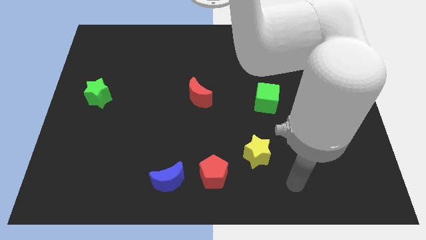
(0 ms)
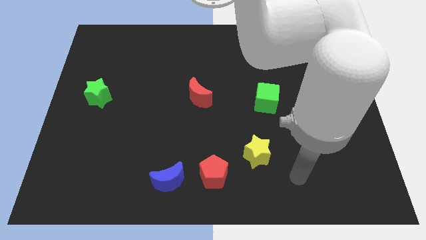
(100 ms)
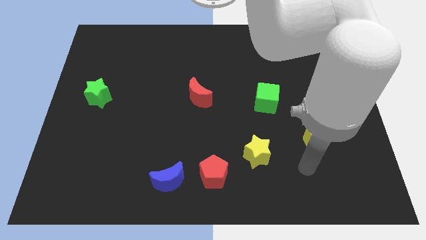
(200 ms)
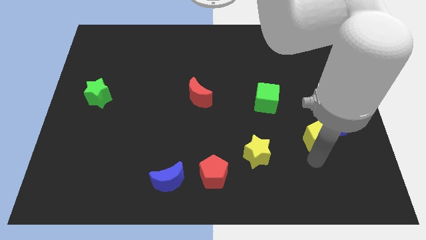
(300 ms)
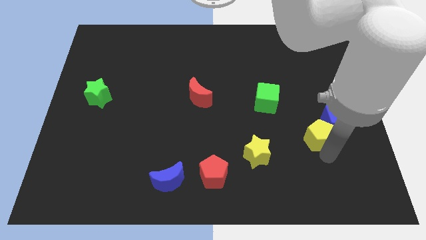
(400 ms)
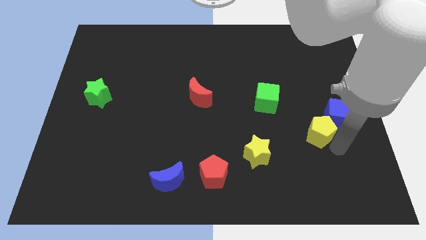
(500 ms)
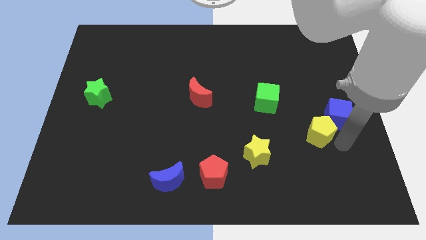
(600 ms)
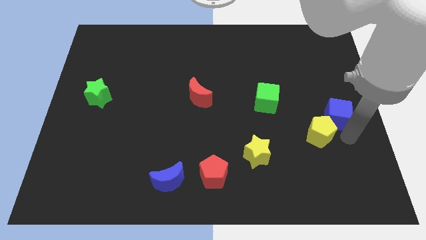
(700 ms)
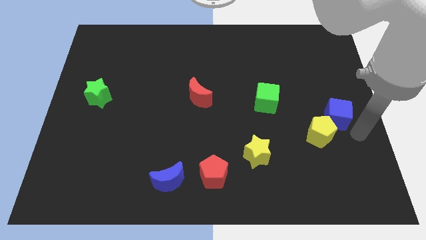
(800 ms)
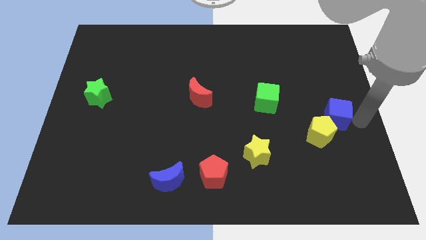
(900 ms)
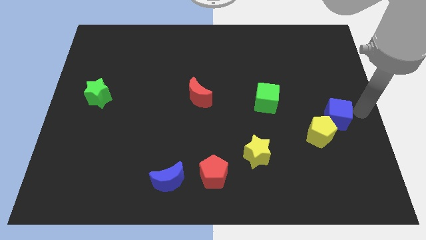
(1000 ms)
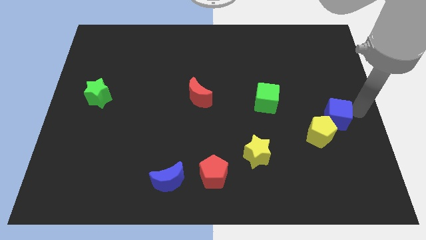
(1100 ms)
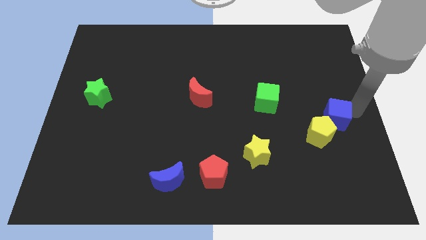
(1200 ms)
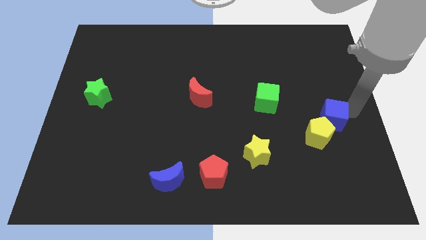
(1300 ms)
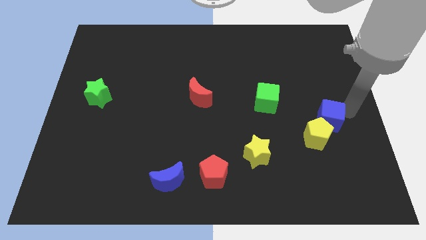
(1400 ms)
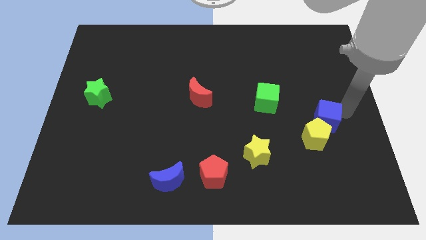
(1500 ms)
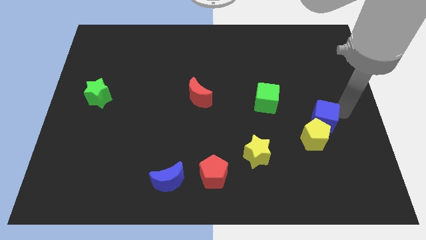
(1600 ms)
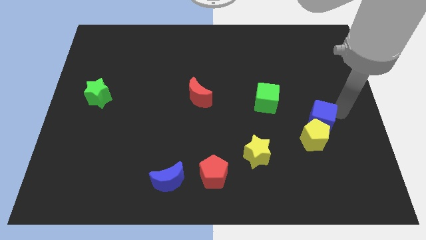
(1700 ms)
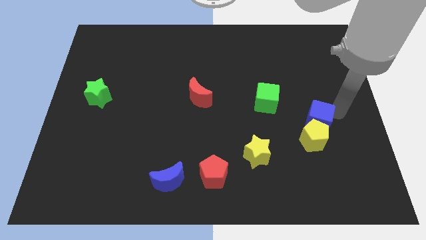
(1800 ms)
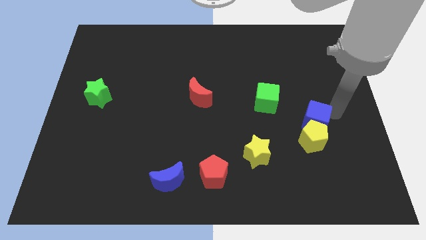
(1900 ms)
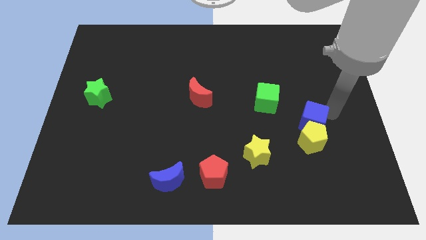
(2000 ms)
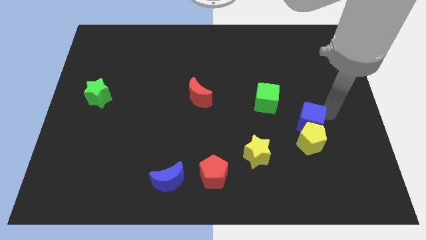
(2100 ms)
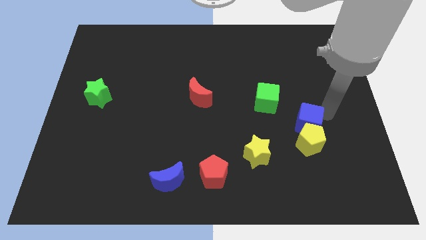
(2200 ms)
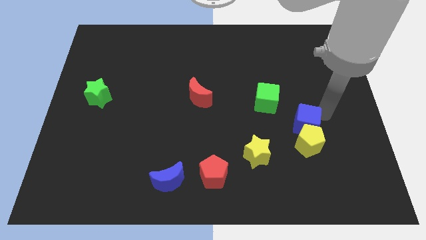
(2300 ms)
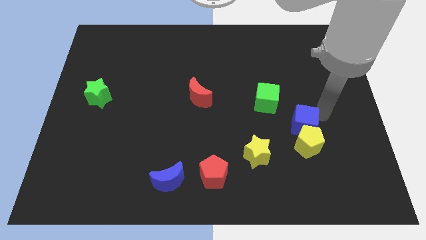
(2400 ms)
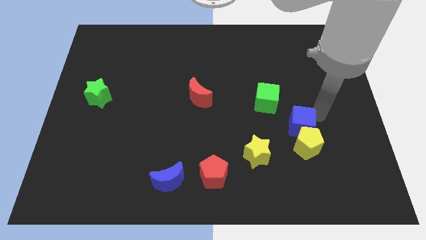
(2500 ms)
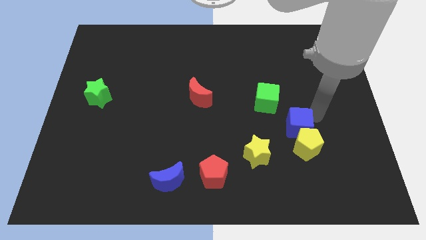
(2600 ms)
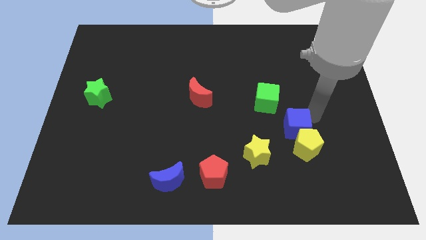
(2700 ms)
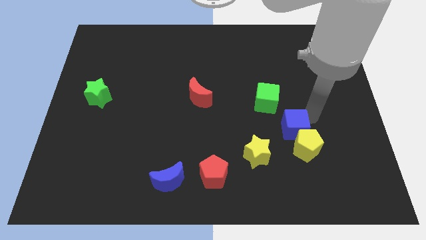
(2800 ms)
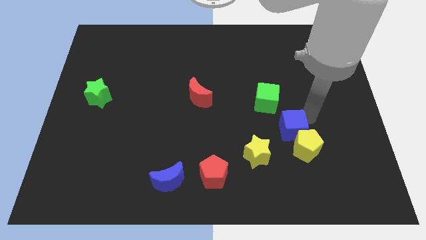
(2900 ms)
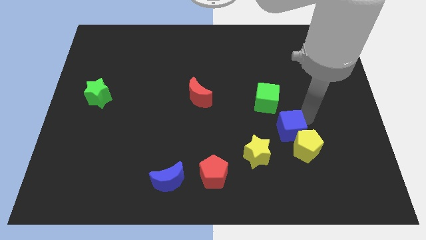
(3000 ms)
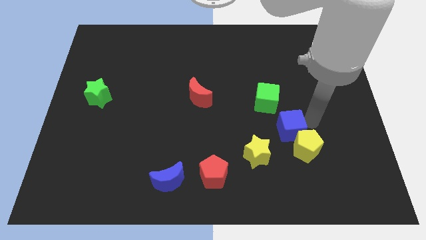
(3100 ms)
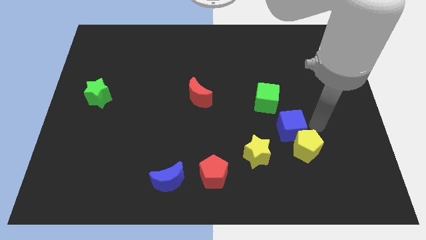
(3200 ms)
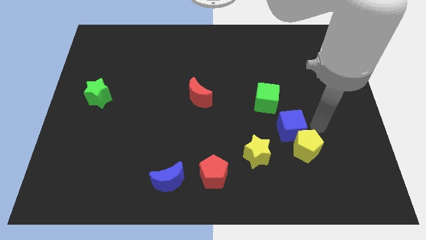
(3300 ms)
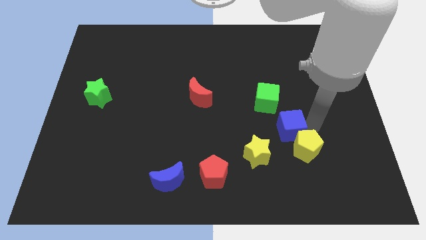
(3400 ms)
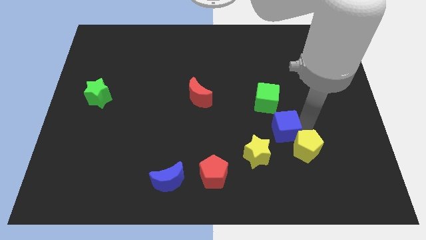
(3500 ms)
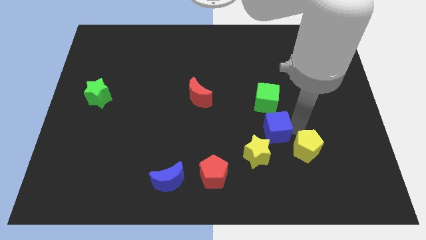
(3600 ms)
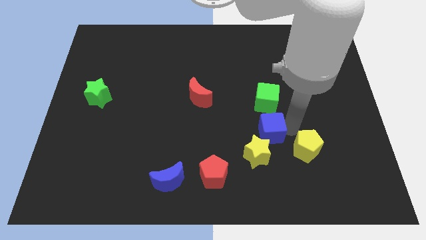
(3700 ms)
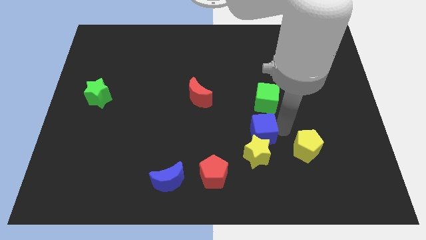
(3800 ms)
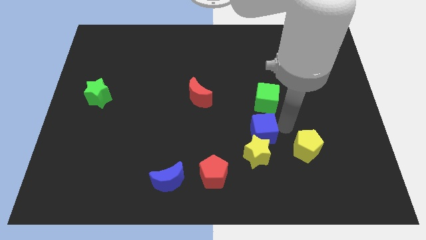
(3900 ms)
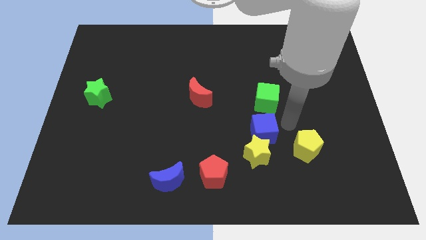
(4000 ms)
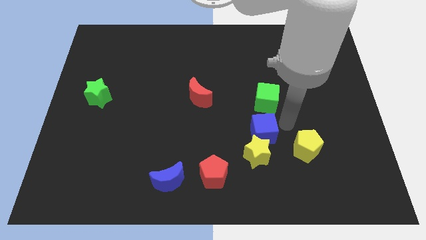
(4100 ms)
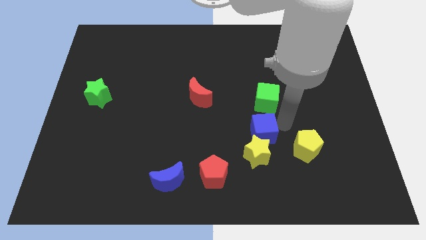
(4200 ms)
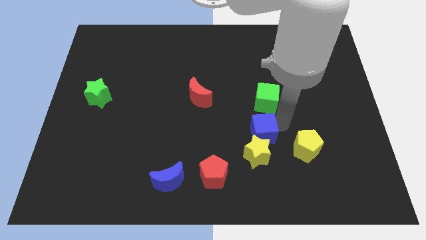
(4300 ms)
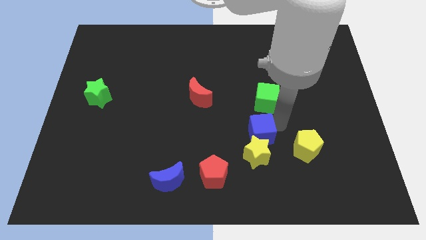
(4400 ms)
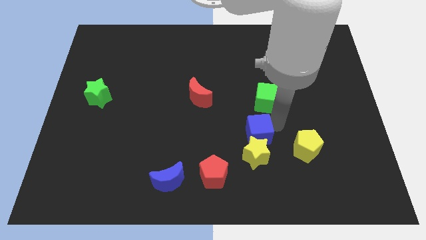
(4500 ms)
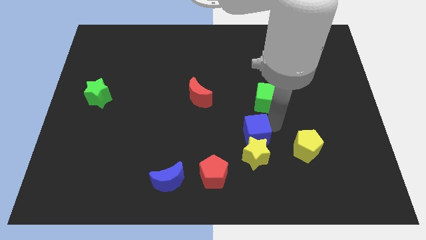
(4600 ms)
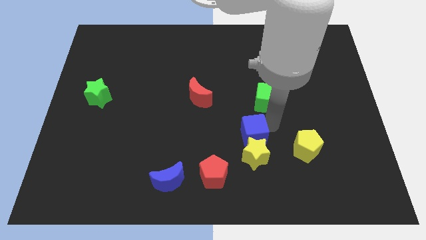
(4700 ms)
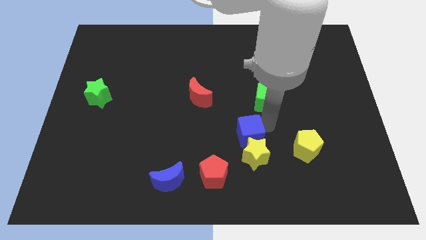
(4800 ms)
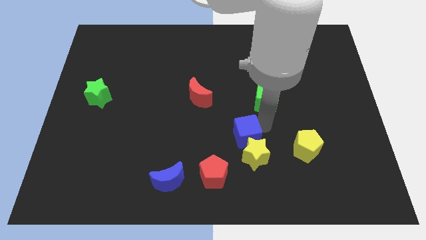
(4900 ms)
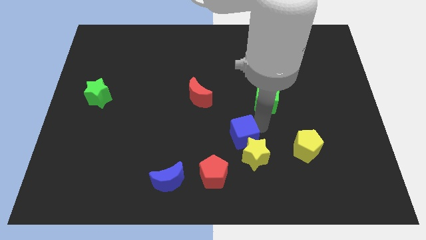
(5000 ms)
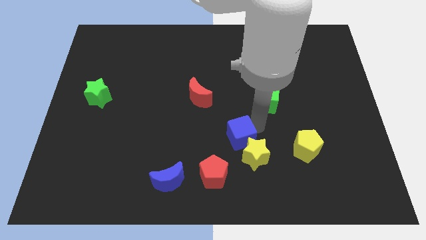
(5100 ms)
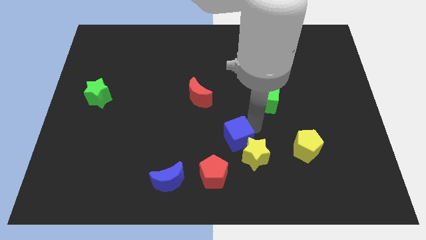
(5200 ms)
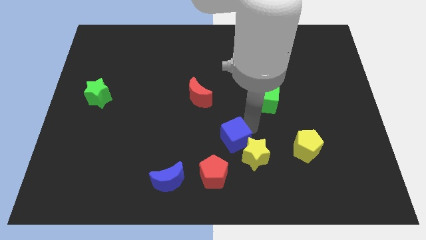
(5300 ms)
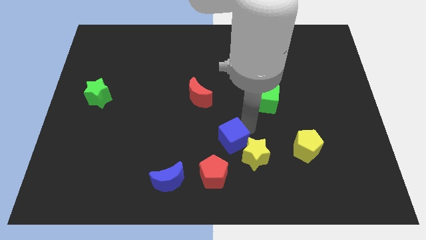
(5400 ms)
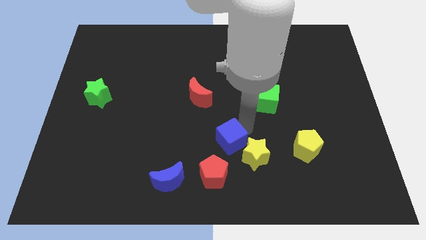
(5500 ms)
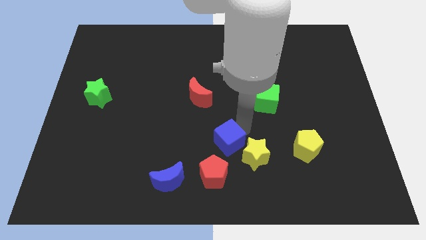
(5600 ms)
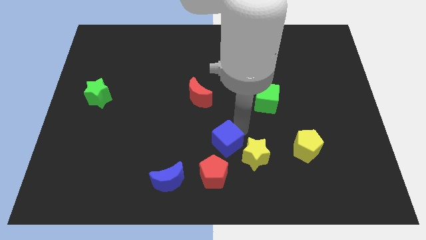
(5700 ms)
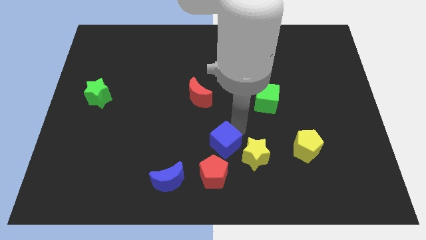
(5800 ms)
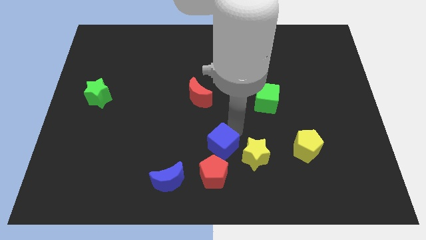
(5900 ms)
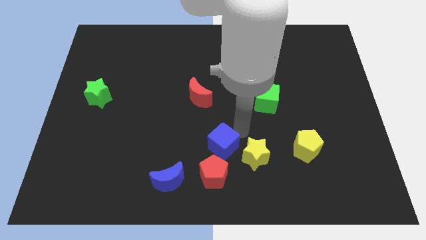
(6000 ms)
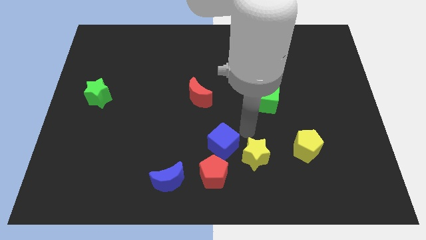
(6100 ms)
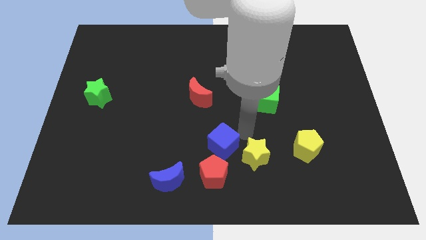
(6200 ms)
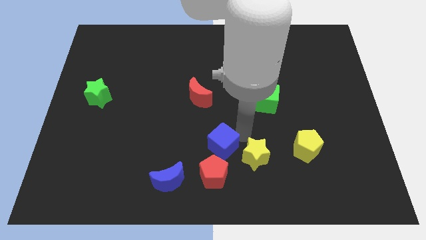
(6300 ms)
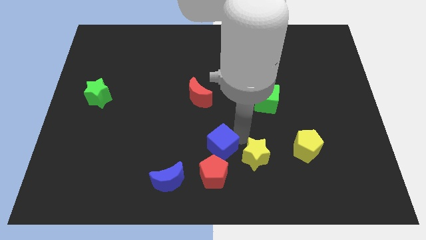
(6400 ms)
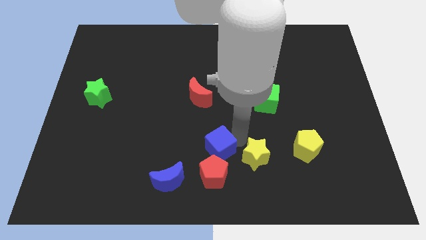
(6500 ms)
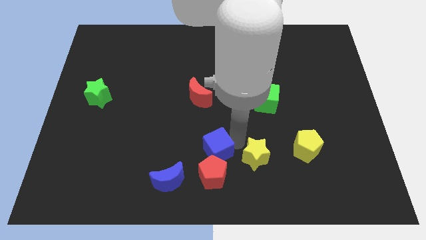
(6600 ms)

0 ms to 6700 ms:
move the blue cube diagonally up and to the right of the blue moon

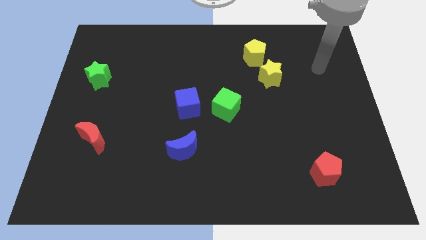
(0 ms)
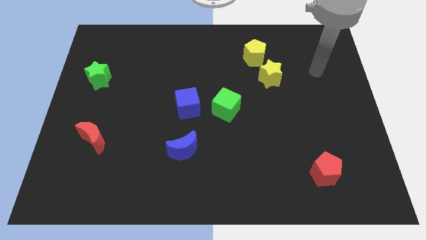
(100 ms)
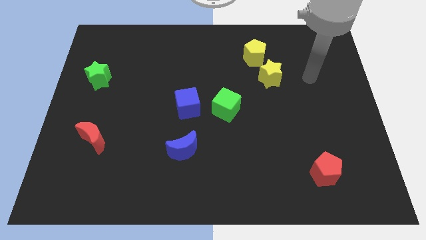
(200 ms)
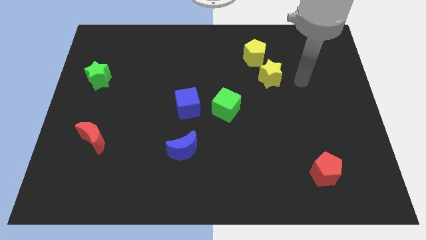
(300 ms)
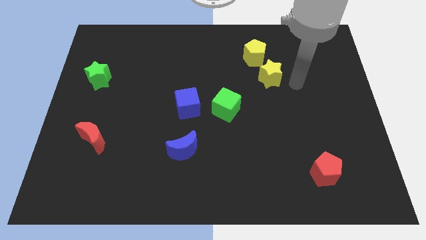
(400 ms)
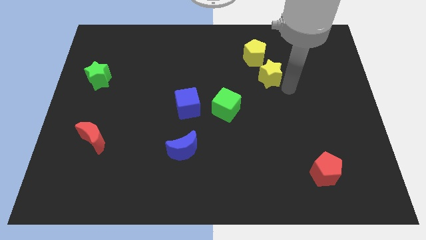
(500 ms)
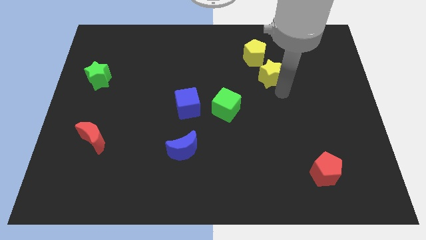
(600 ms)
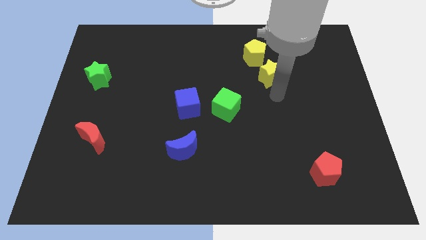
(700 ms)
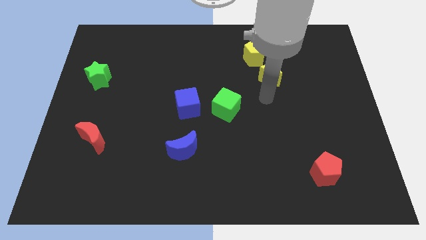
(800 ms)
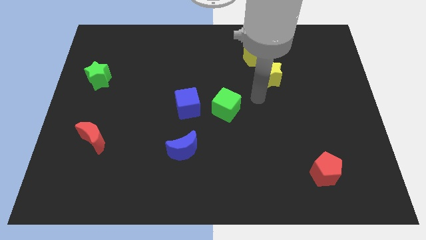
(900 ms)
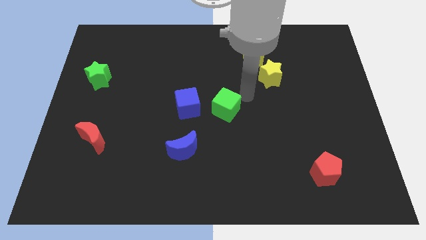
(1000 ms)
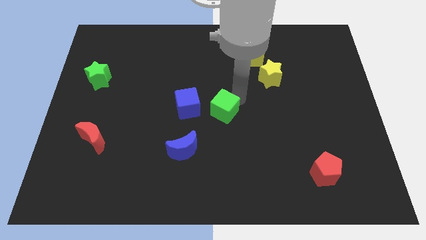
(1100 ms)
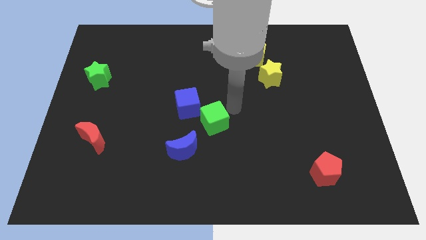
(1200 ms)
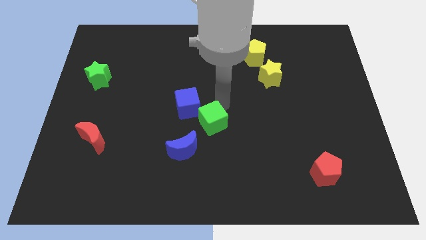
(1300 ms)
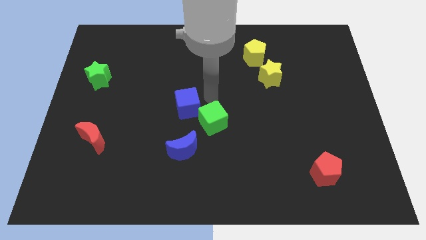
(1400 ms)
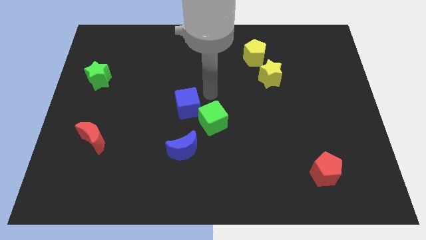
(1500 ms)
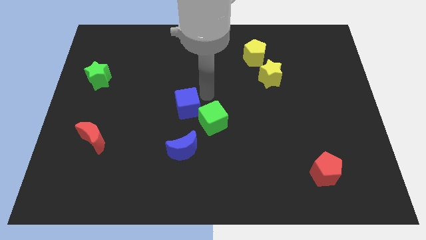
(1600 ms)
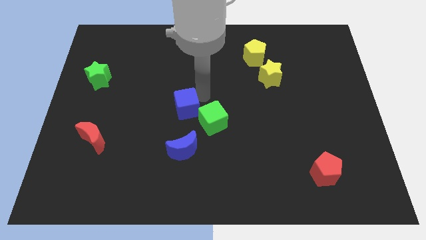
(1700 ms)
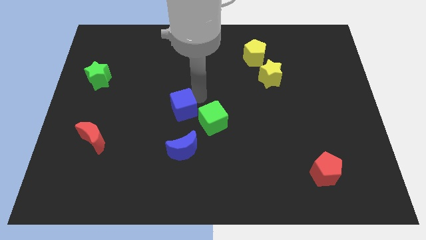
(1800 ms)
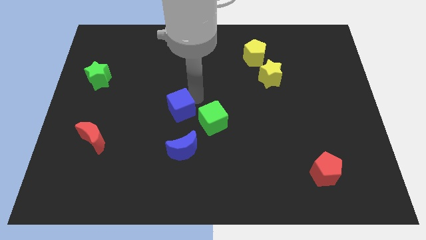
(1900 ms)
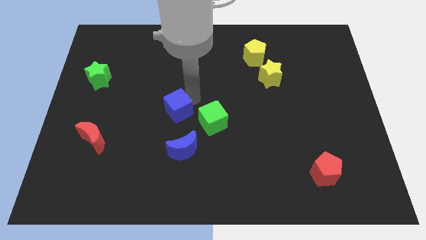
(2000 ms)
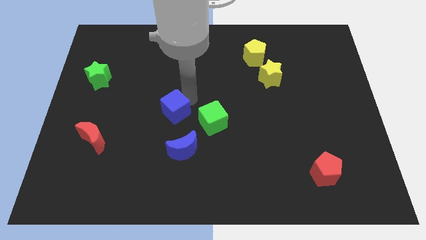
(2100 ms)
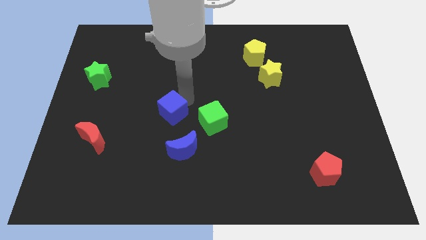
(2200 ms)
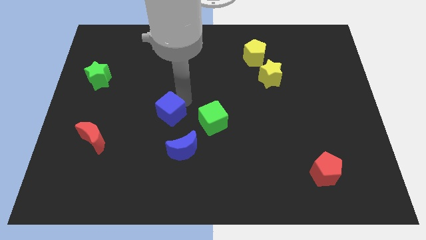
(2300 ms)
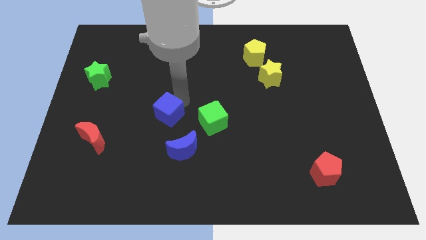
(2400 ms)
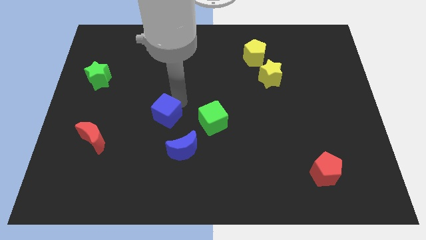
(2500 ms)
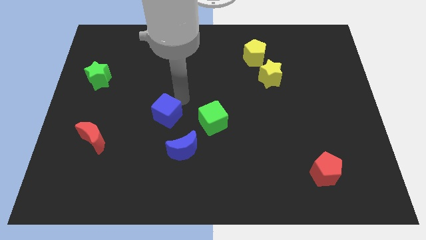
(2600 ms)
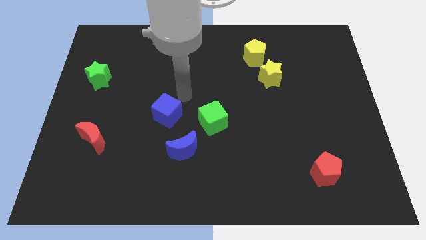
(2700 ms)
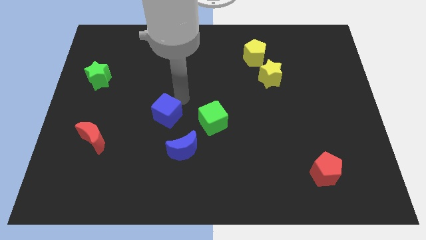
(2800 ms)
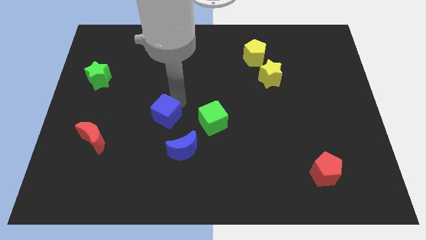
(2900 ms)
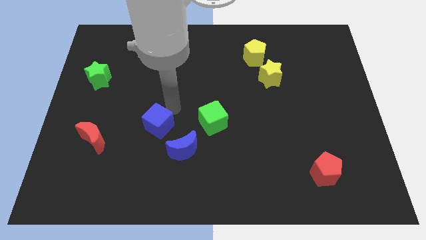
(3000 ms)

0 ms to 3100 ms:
move the blue cube just right of the red moon
